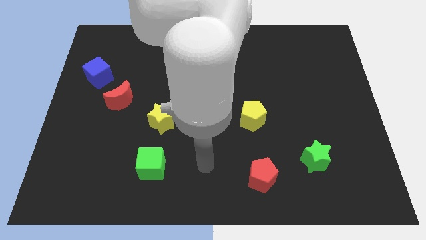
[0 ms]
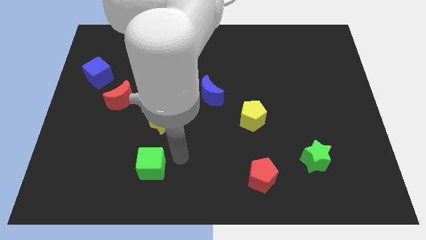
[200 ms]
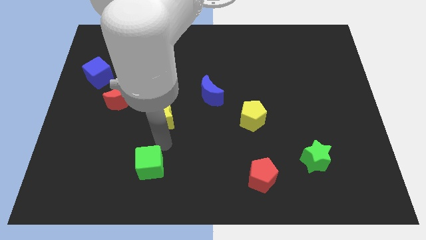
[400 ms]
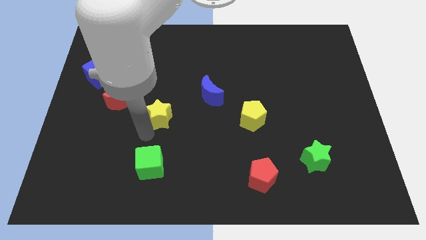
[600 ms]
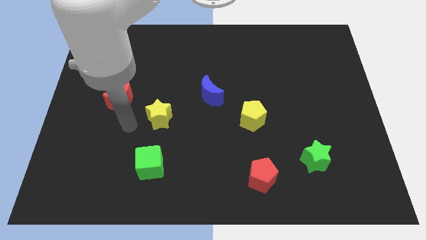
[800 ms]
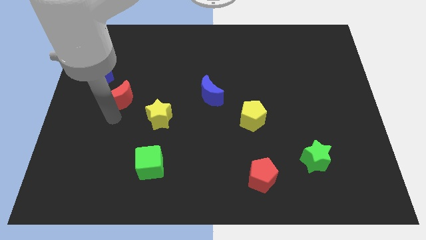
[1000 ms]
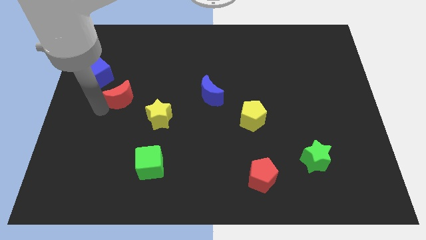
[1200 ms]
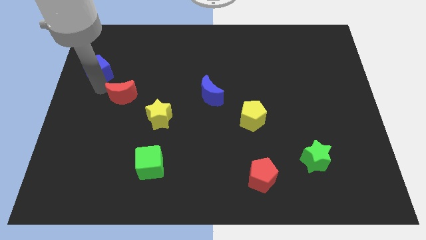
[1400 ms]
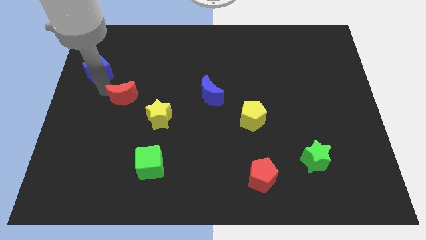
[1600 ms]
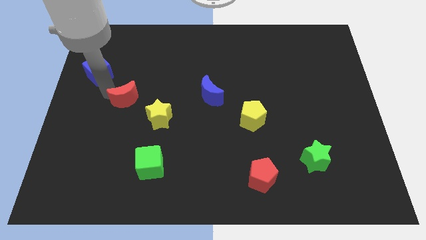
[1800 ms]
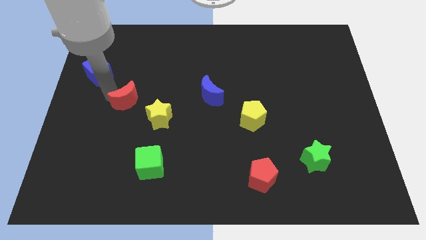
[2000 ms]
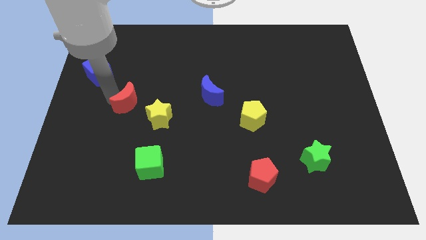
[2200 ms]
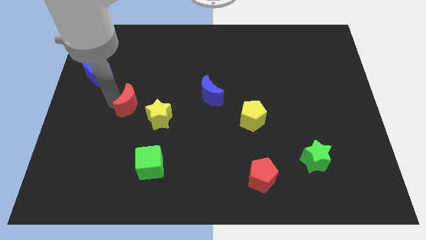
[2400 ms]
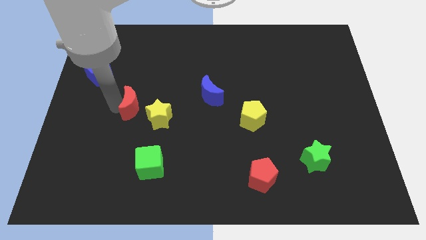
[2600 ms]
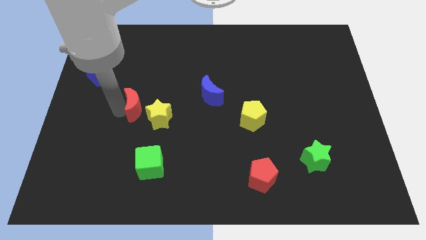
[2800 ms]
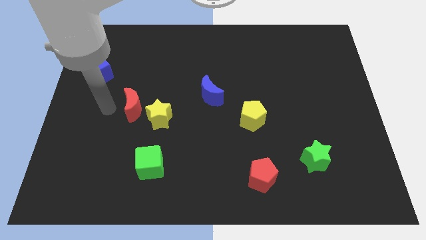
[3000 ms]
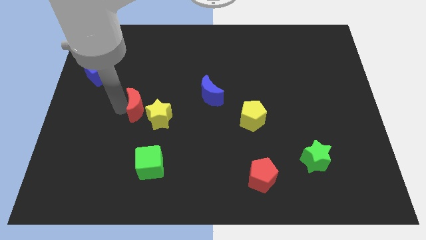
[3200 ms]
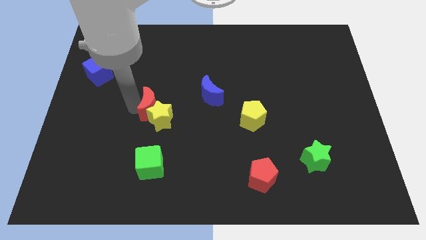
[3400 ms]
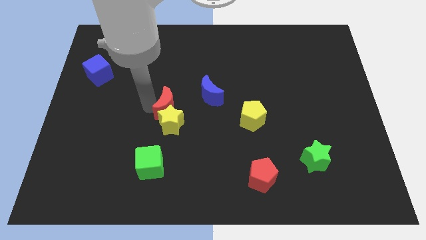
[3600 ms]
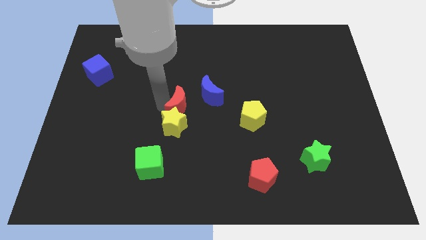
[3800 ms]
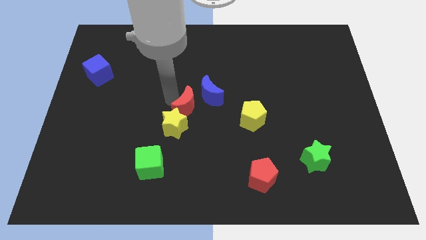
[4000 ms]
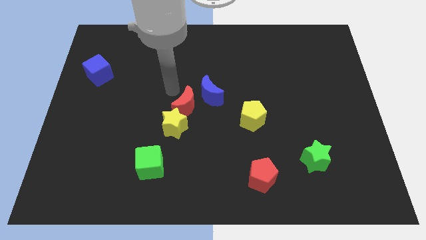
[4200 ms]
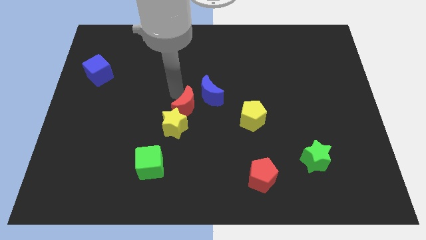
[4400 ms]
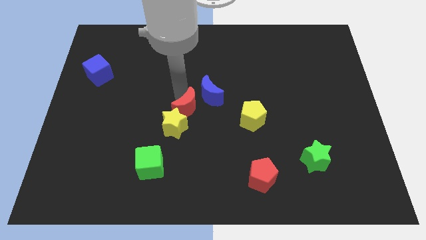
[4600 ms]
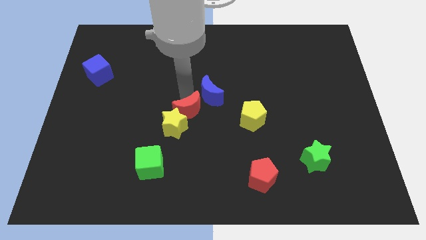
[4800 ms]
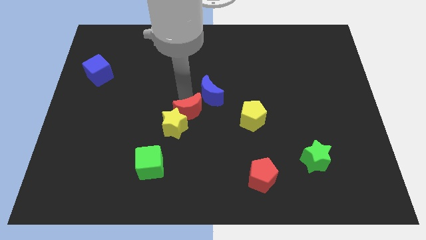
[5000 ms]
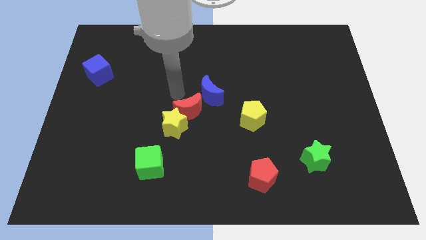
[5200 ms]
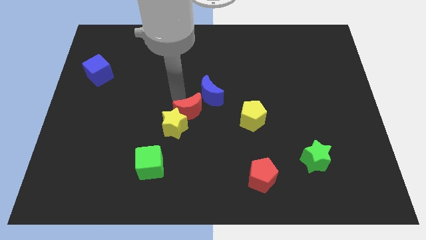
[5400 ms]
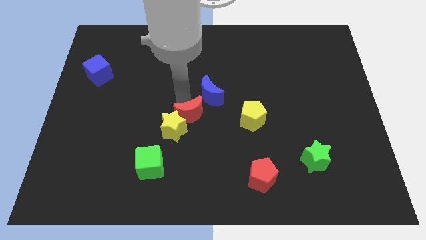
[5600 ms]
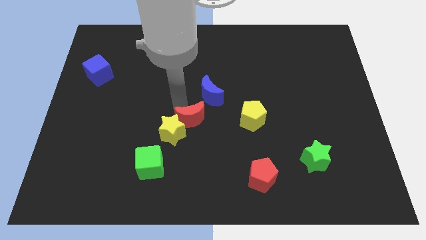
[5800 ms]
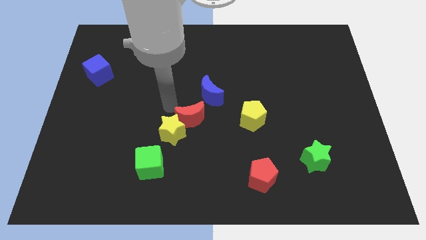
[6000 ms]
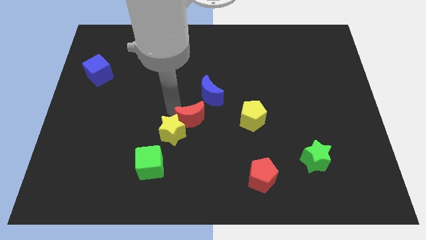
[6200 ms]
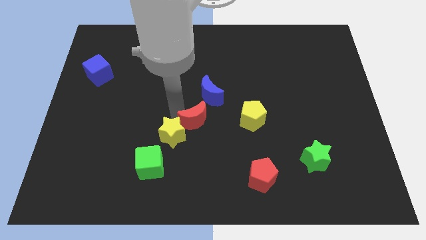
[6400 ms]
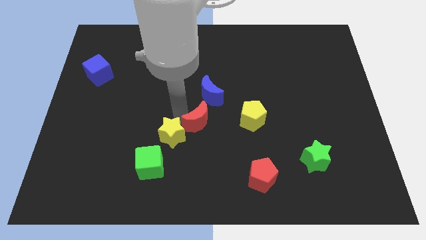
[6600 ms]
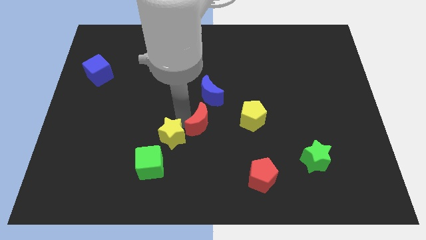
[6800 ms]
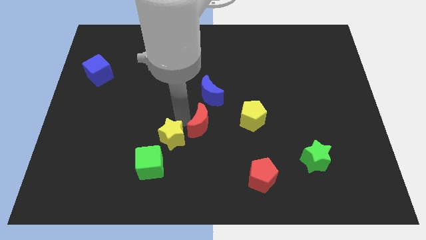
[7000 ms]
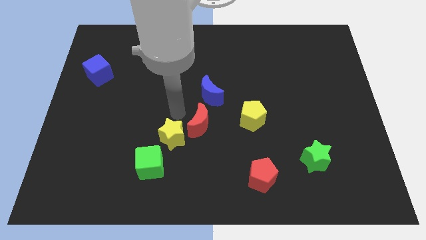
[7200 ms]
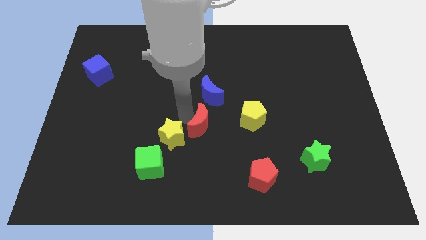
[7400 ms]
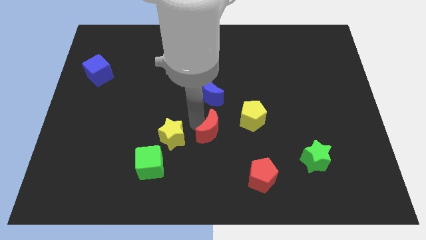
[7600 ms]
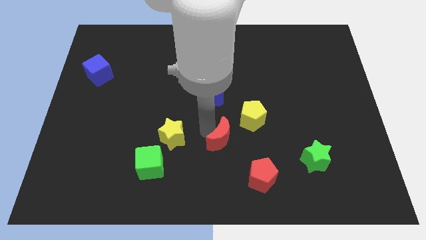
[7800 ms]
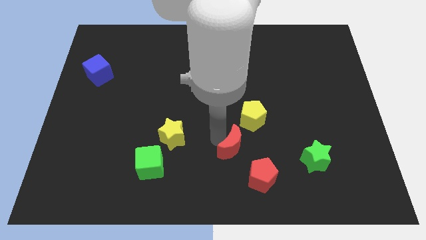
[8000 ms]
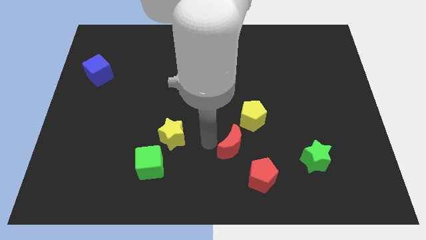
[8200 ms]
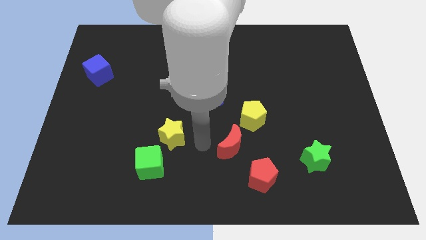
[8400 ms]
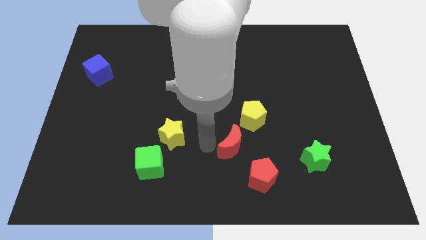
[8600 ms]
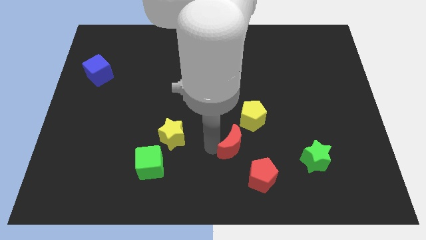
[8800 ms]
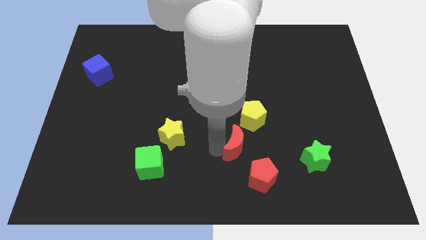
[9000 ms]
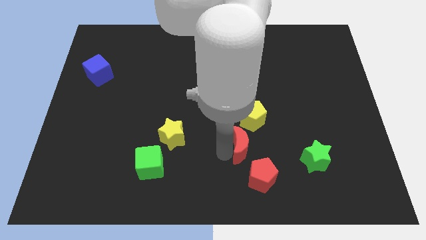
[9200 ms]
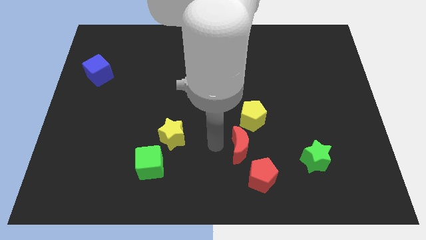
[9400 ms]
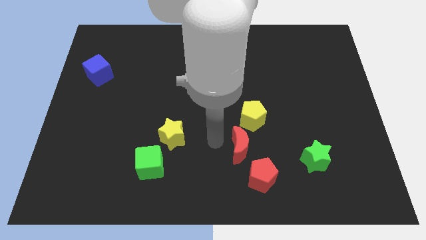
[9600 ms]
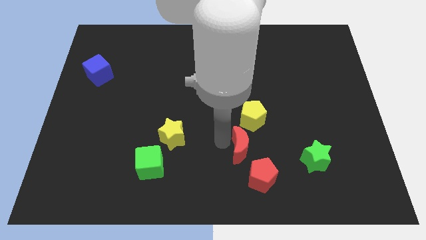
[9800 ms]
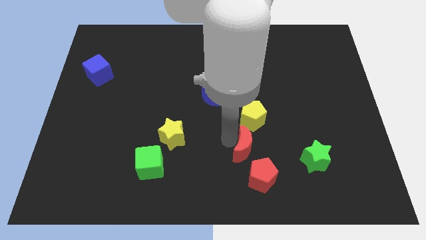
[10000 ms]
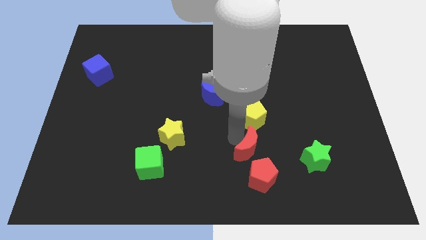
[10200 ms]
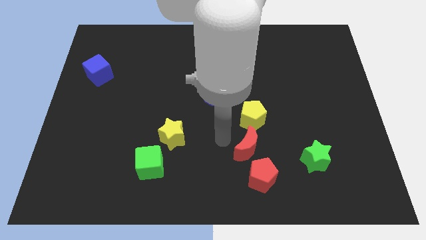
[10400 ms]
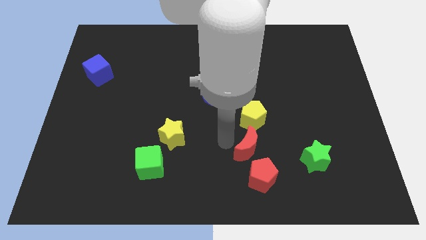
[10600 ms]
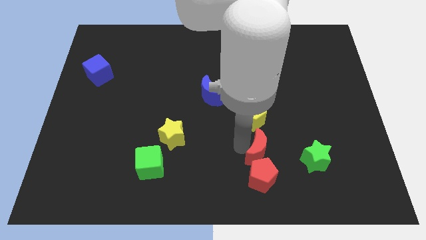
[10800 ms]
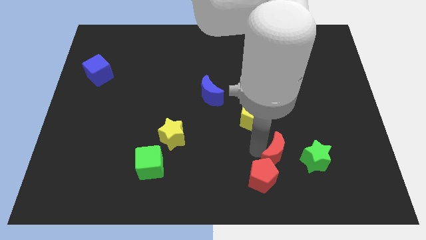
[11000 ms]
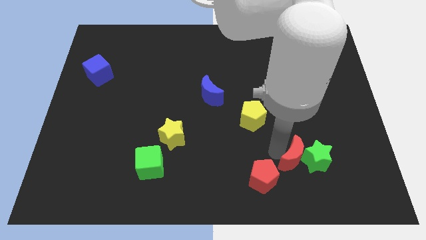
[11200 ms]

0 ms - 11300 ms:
slide the red moon just right of the red pentagon

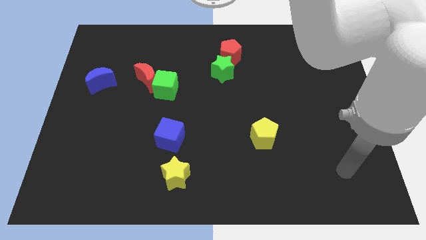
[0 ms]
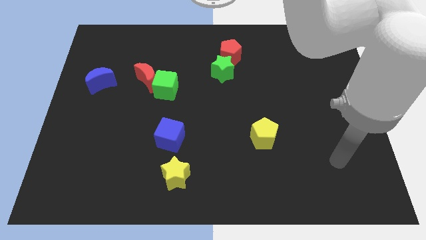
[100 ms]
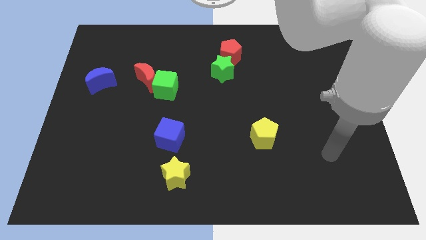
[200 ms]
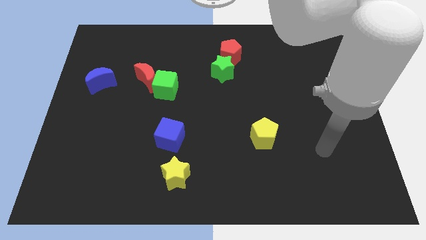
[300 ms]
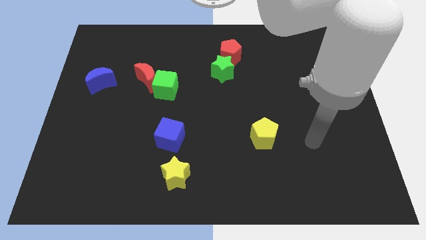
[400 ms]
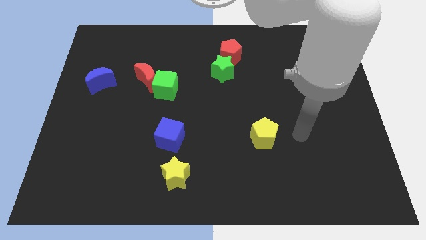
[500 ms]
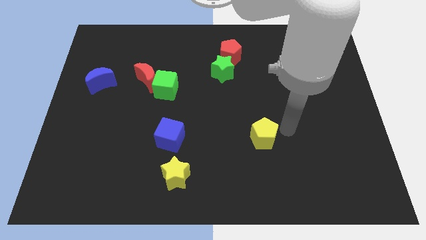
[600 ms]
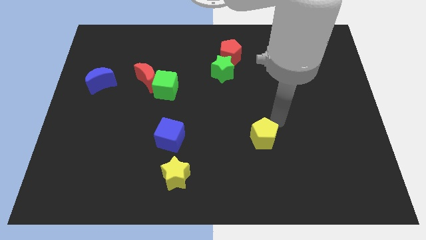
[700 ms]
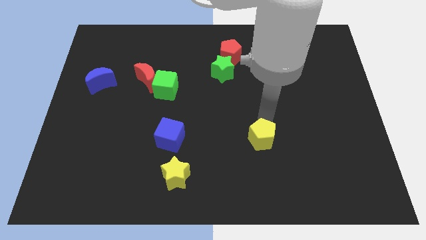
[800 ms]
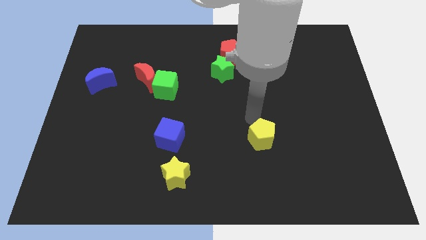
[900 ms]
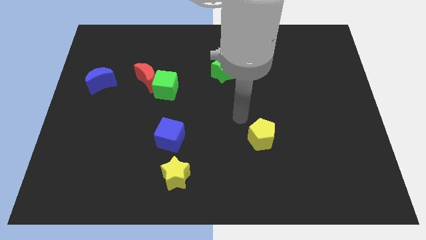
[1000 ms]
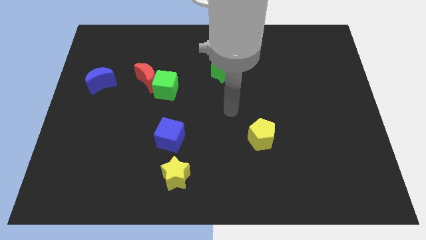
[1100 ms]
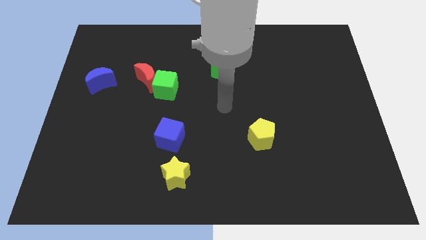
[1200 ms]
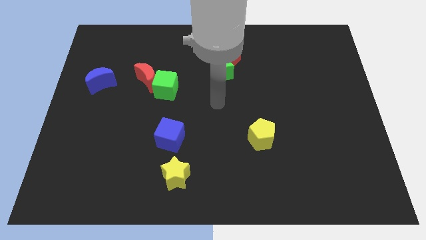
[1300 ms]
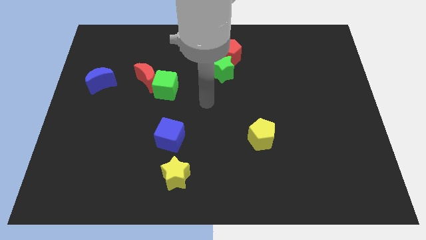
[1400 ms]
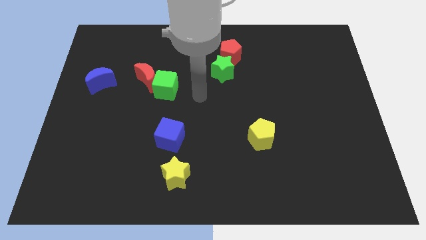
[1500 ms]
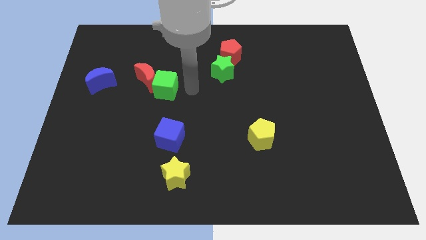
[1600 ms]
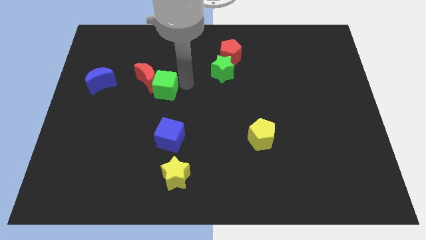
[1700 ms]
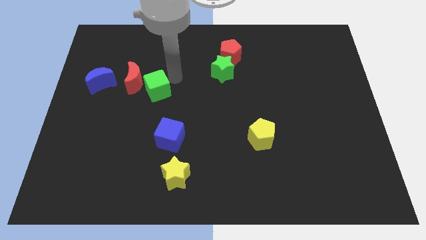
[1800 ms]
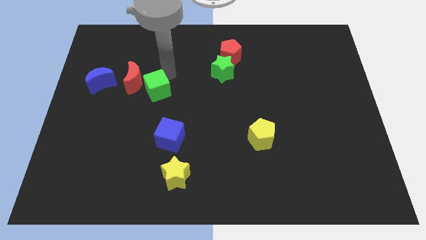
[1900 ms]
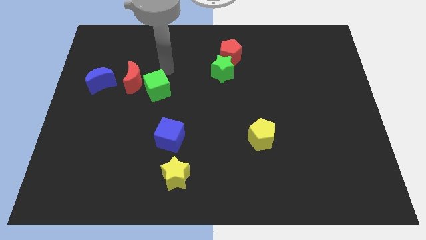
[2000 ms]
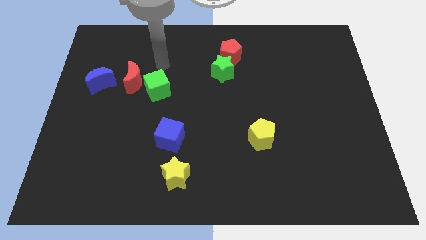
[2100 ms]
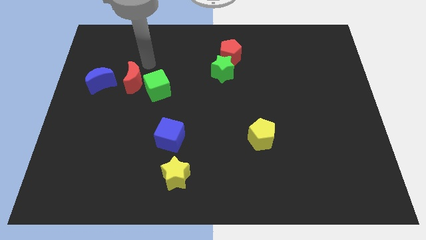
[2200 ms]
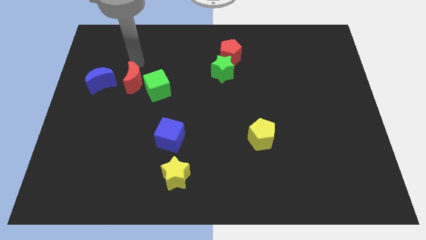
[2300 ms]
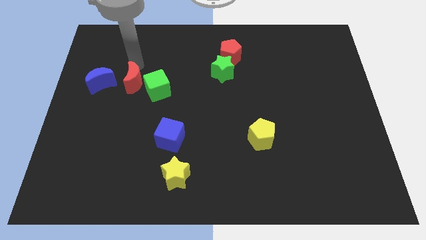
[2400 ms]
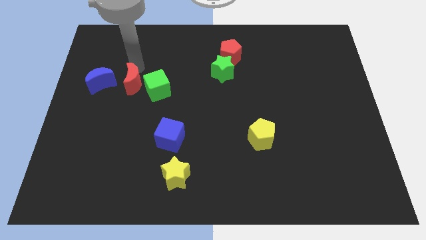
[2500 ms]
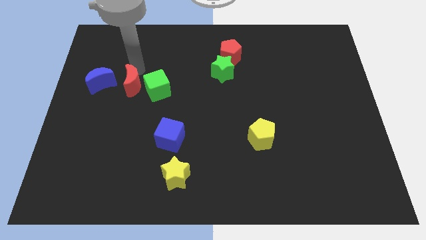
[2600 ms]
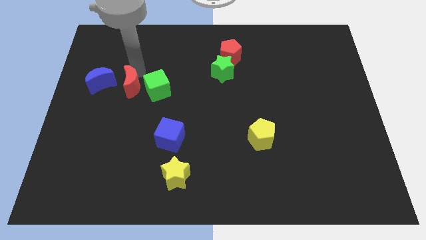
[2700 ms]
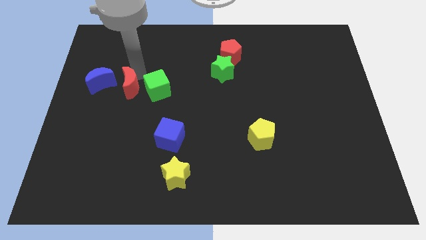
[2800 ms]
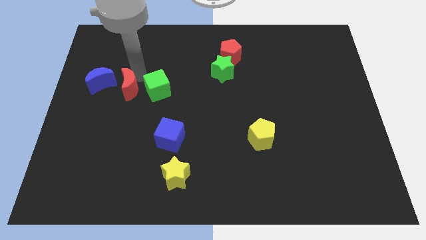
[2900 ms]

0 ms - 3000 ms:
move the red moon diagonally down and to the left of the green cube
